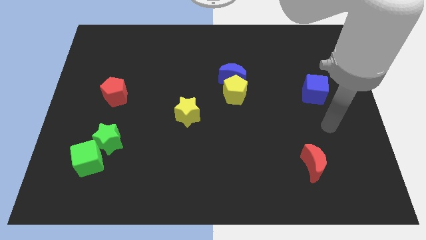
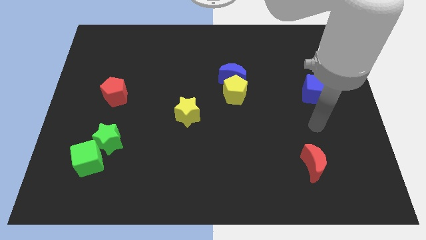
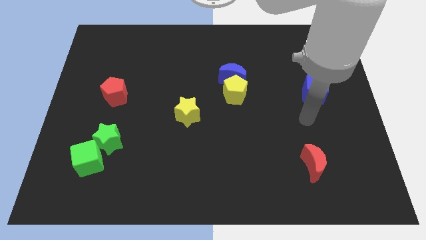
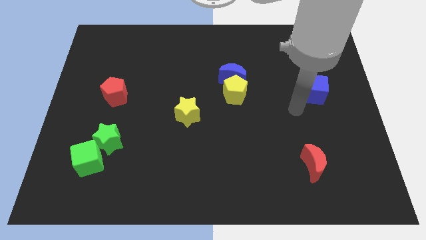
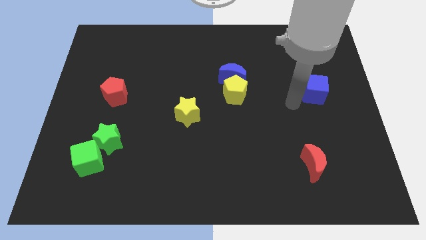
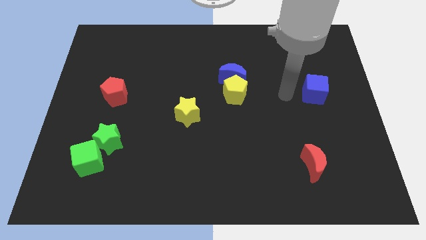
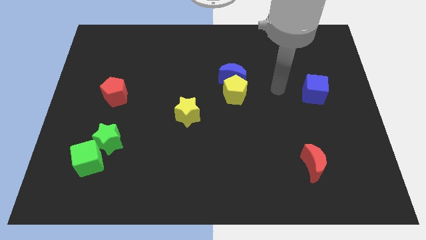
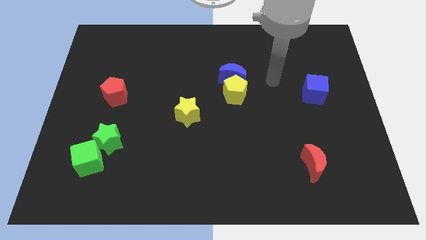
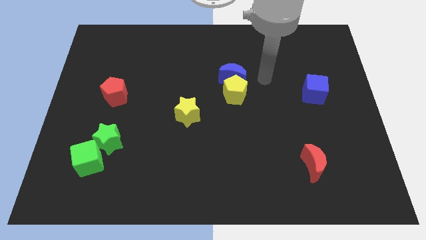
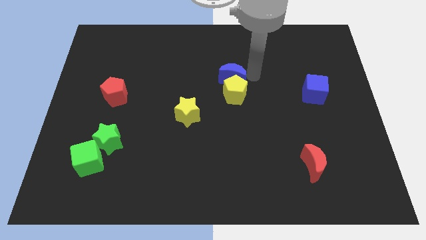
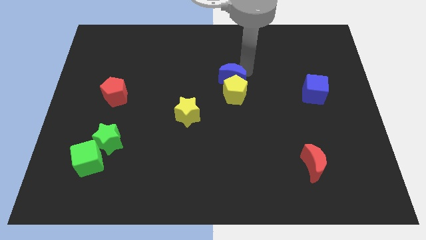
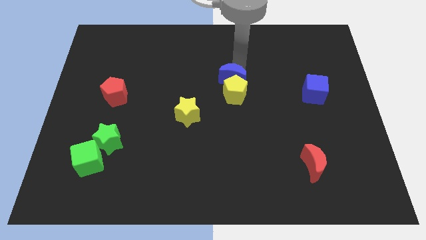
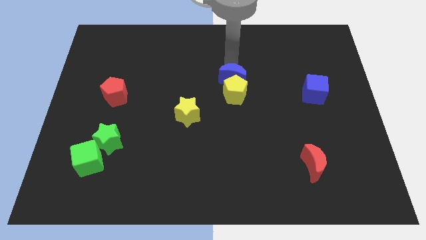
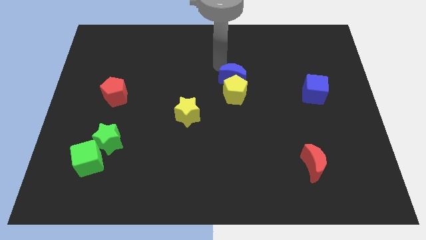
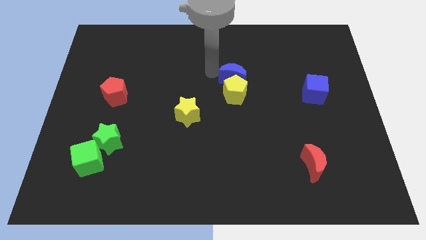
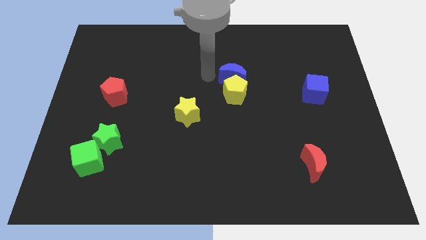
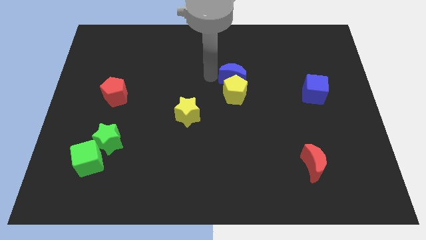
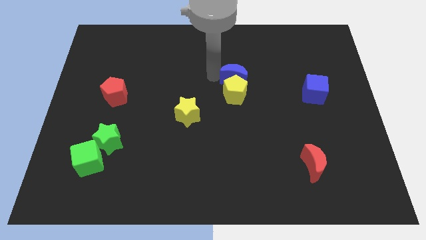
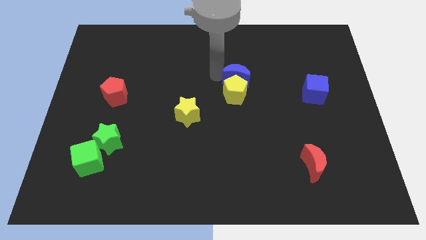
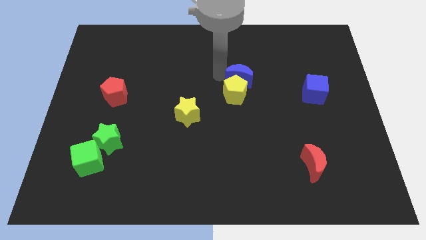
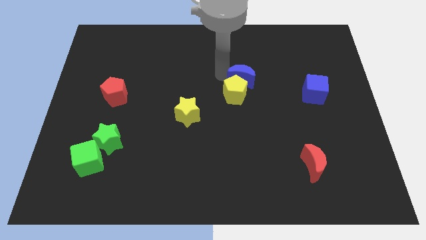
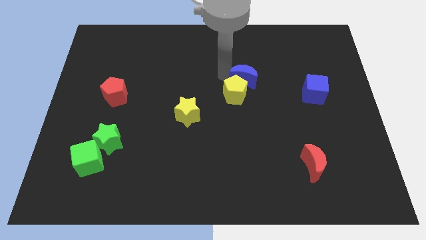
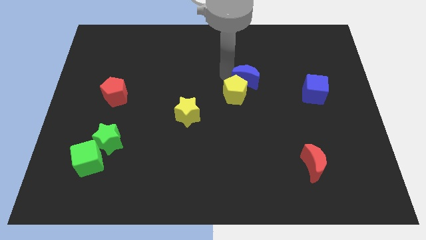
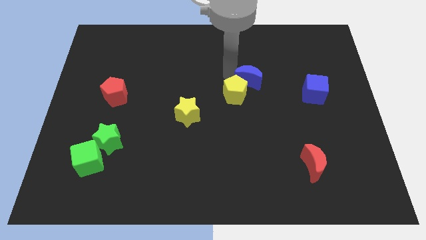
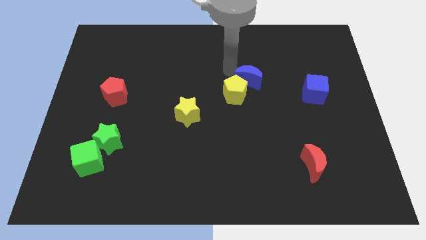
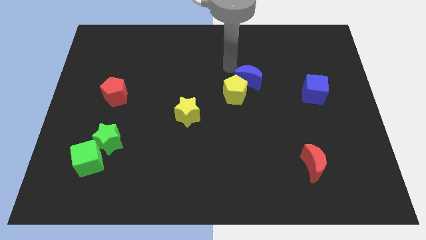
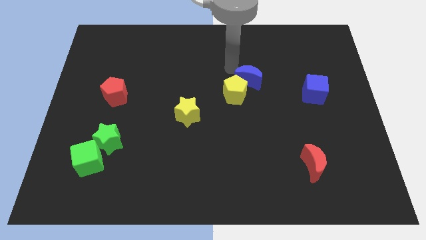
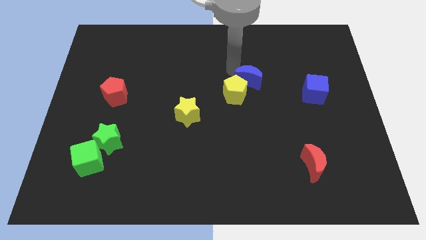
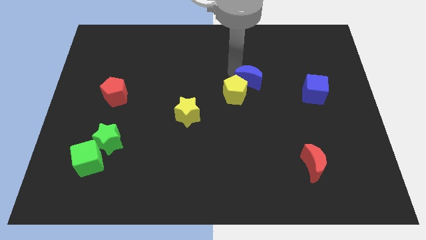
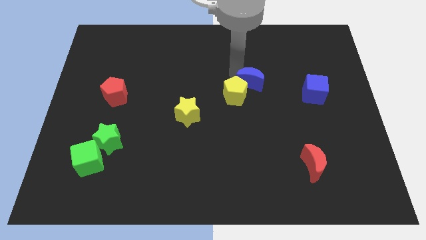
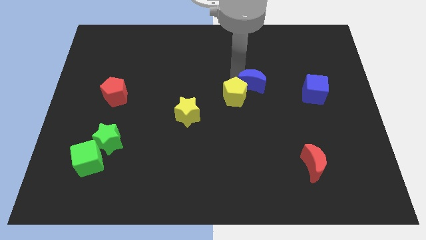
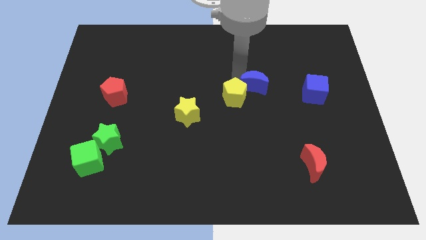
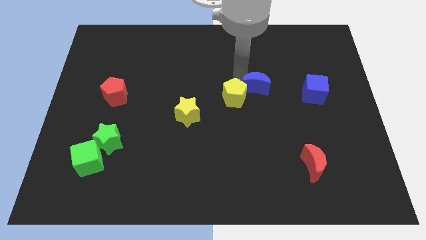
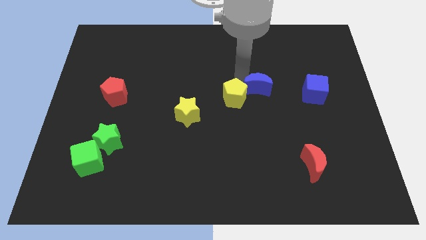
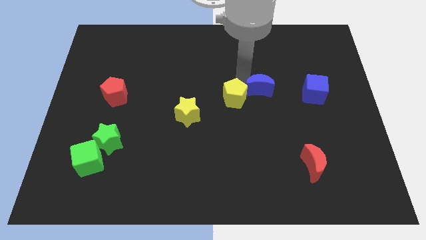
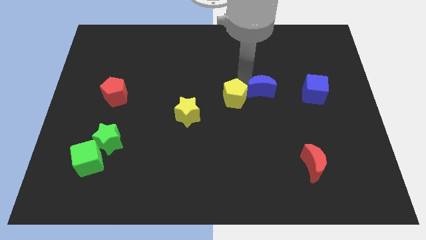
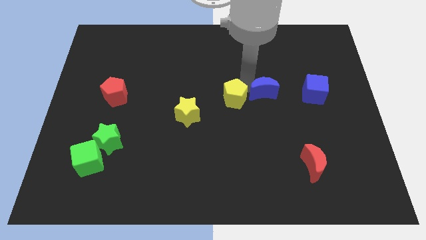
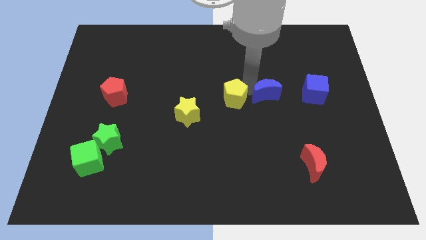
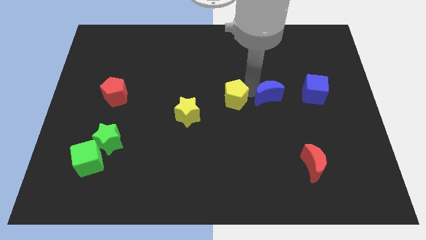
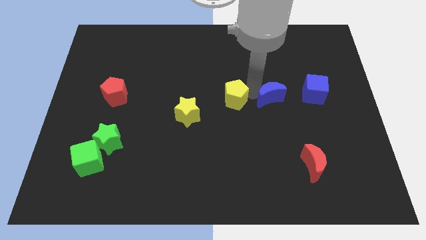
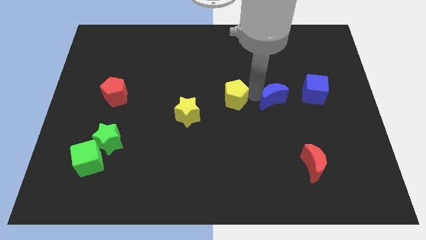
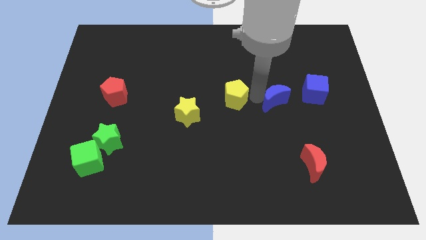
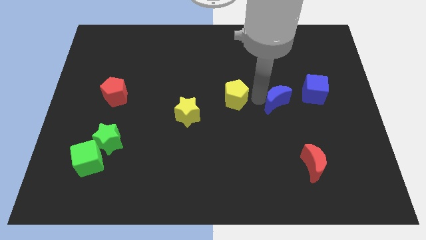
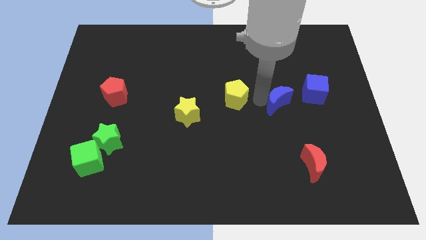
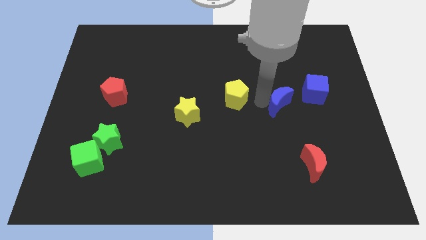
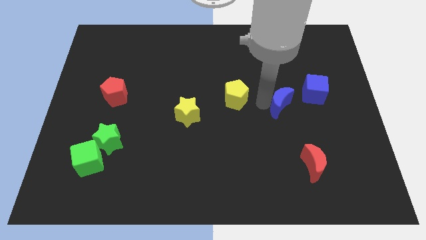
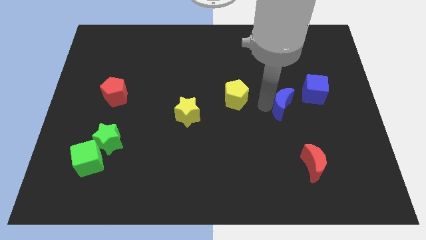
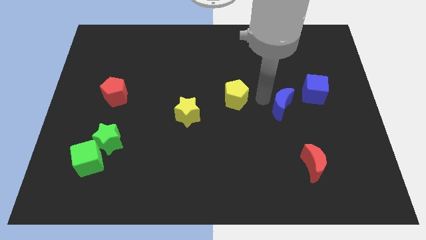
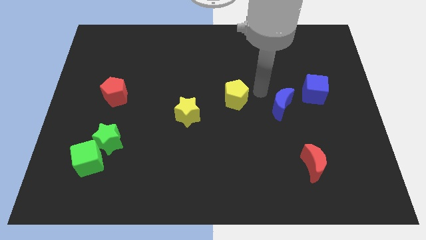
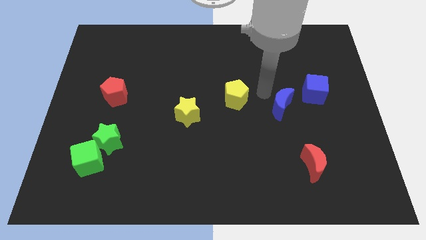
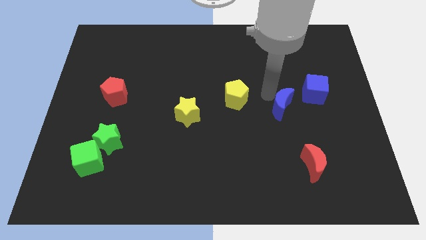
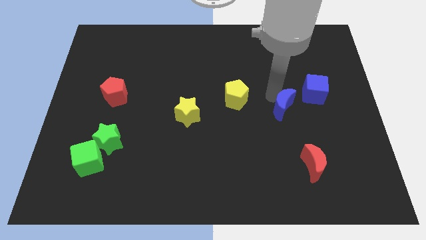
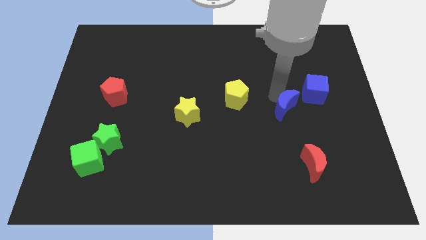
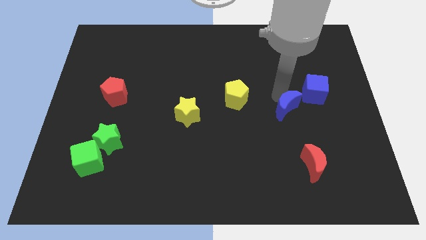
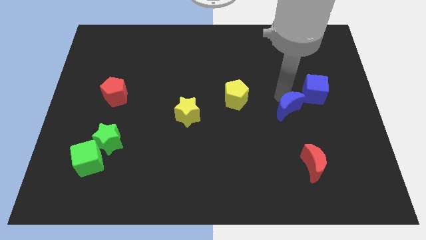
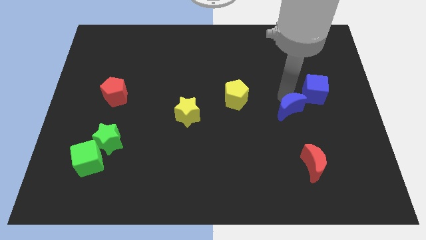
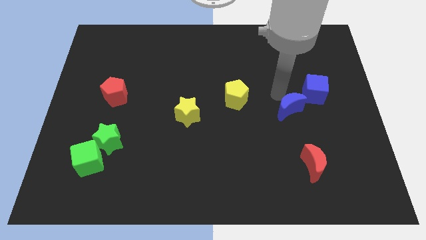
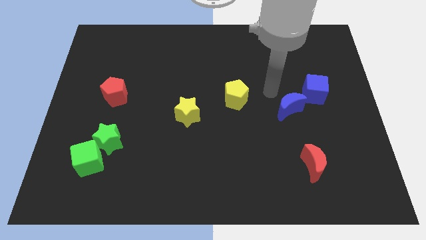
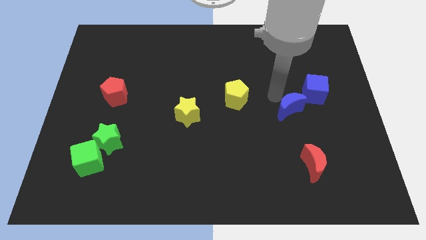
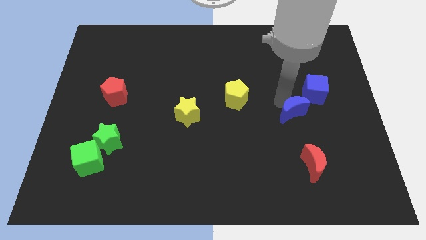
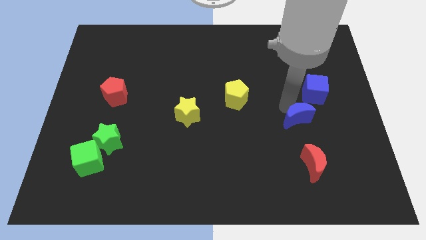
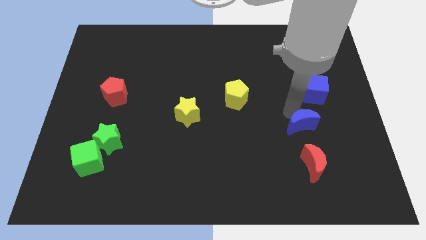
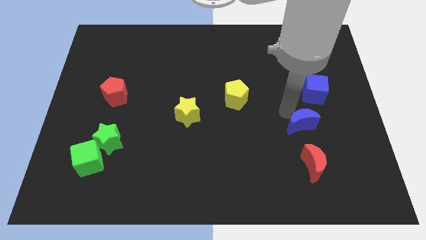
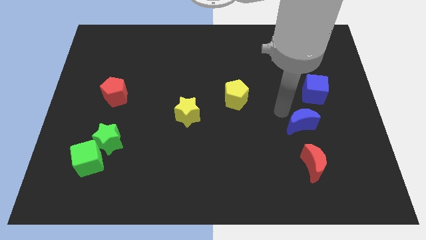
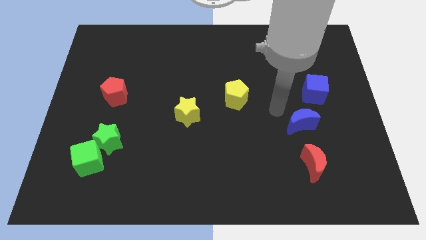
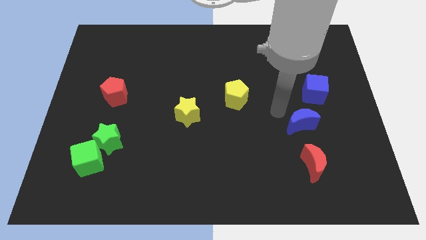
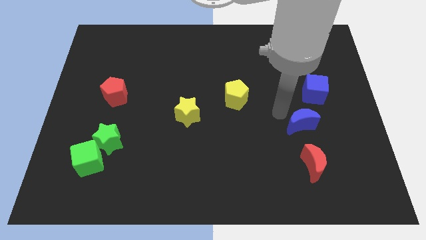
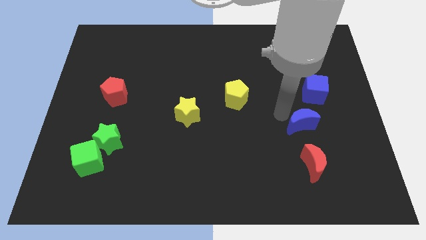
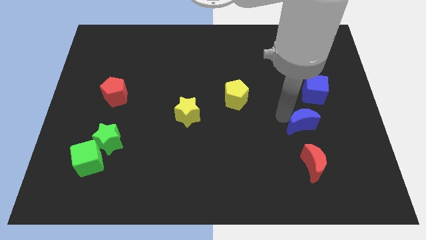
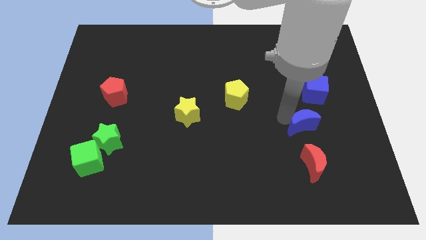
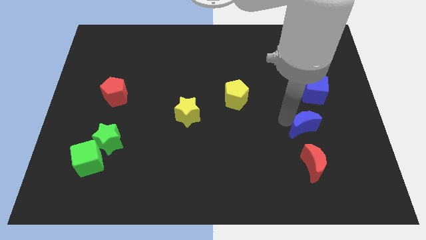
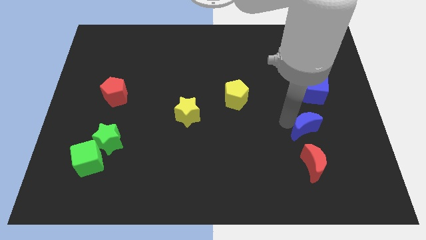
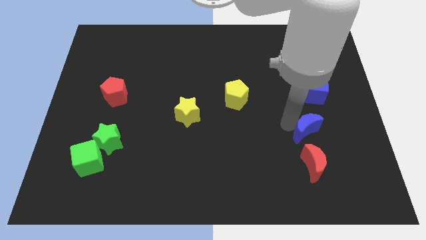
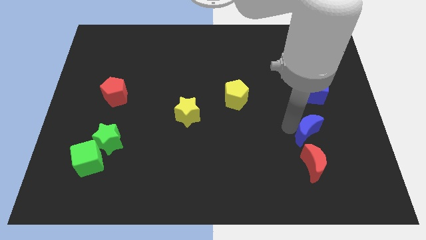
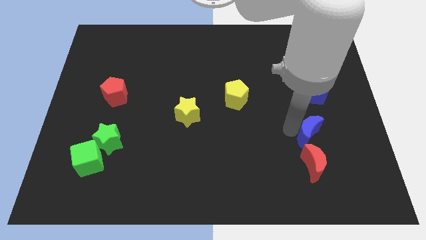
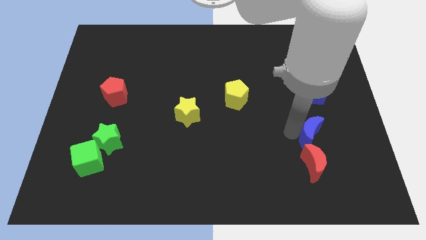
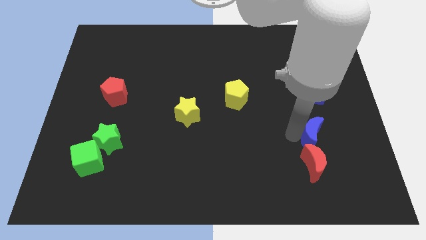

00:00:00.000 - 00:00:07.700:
move the blue moon to the top right side of the red moon
